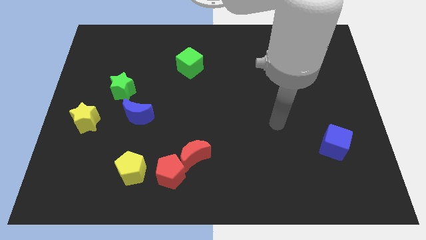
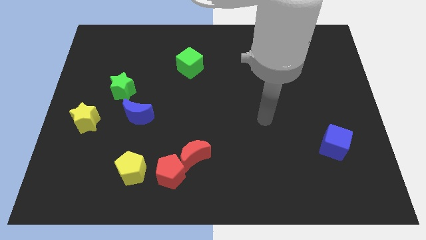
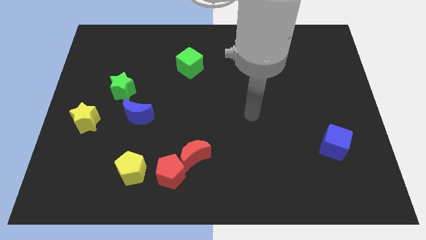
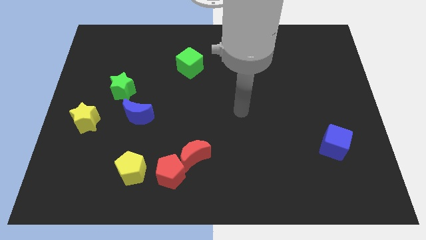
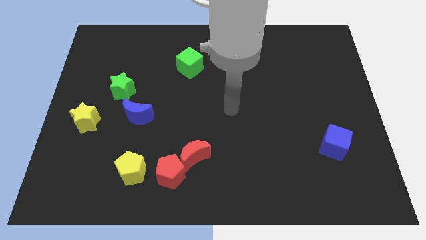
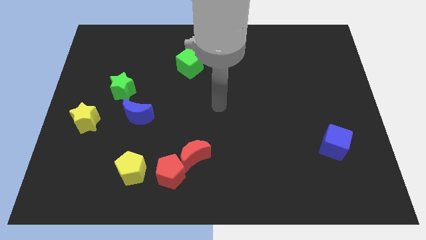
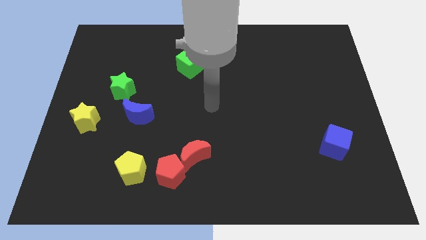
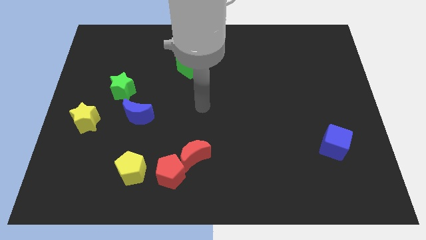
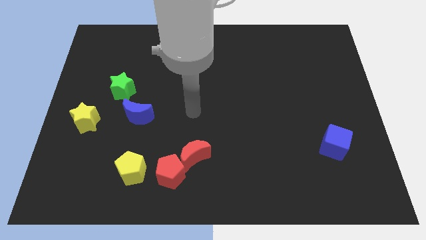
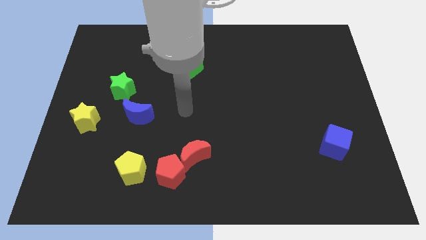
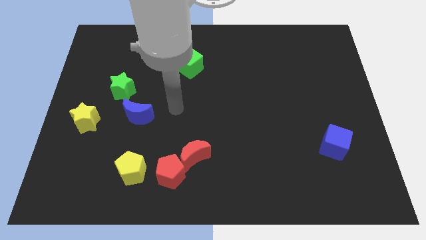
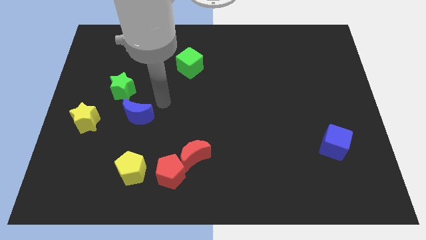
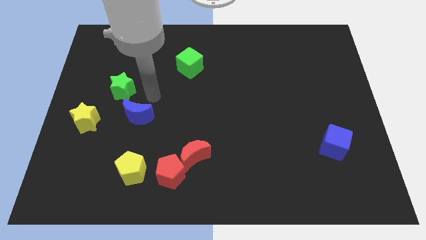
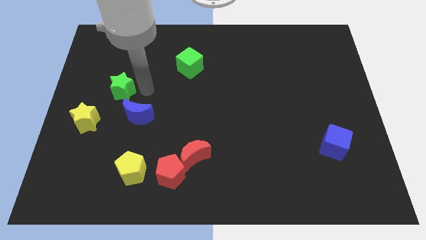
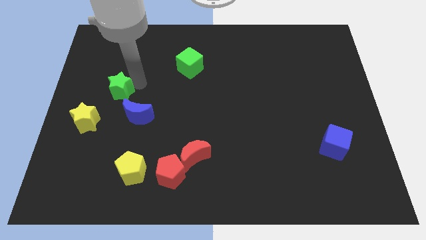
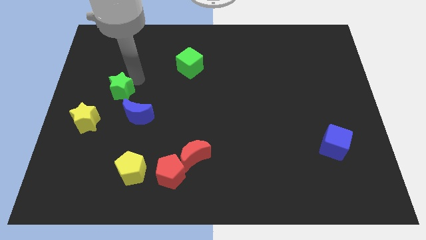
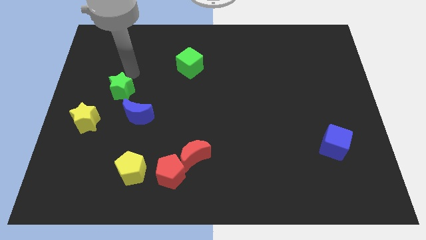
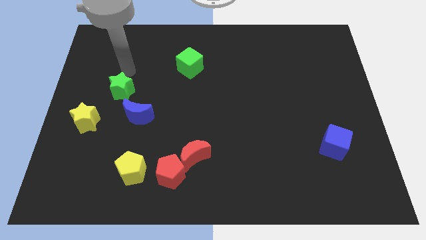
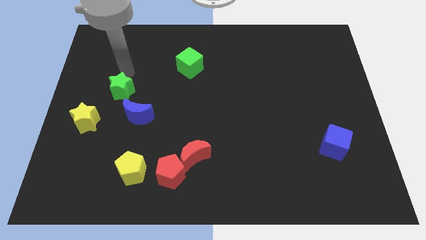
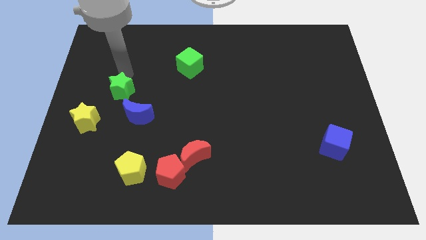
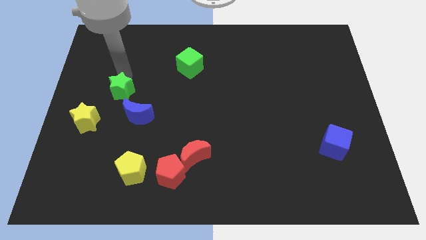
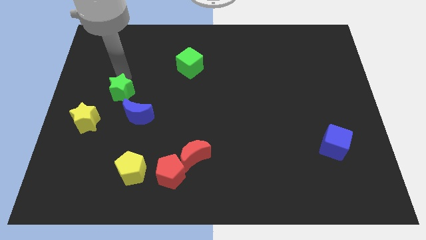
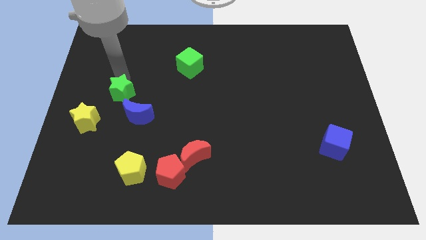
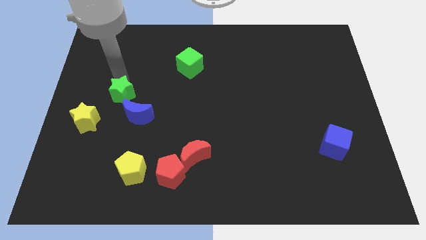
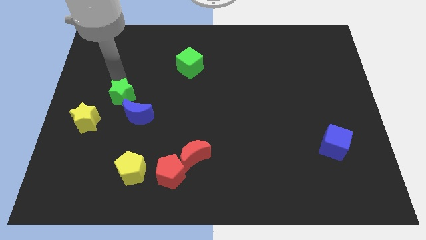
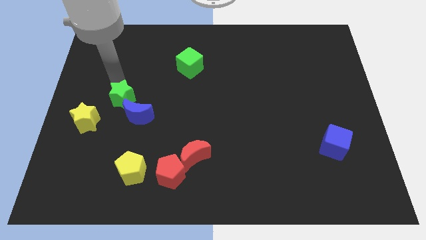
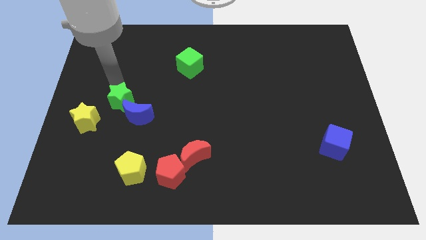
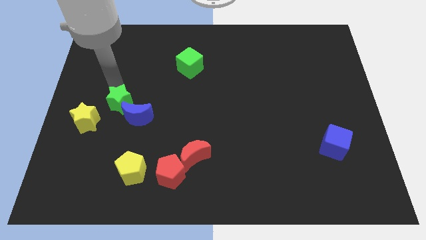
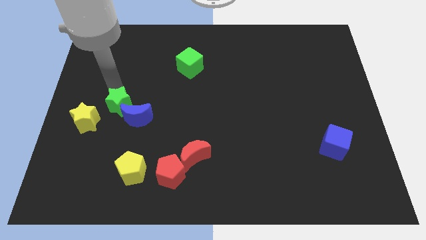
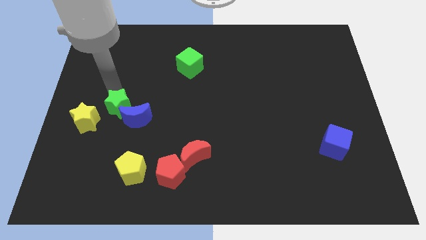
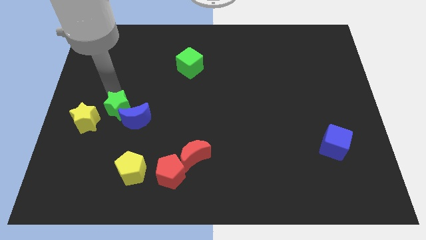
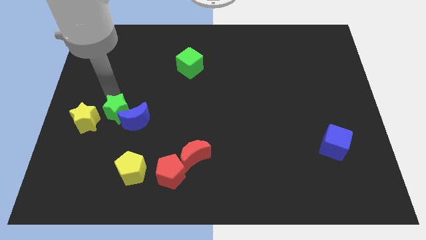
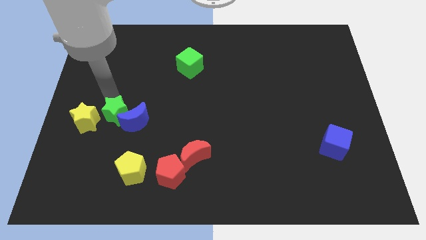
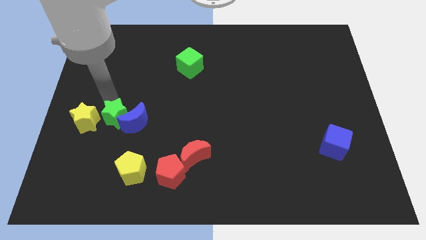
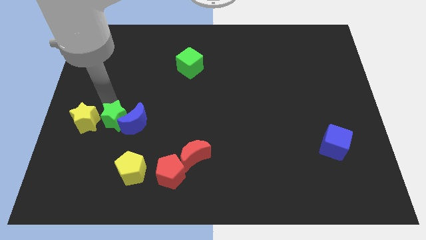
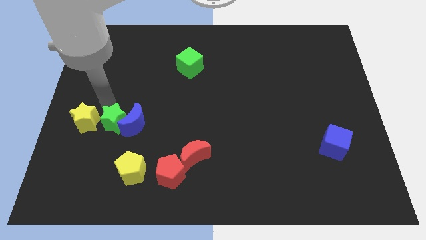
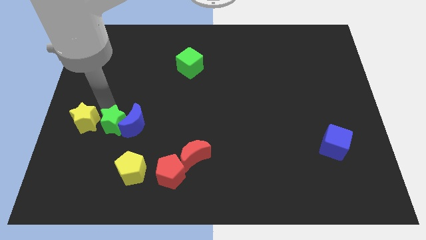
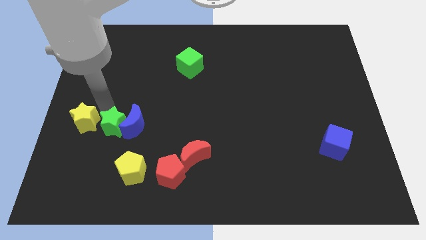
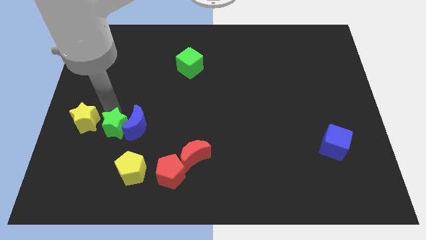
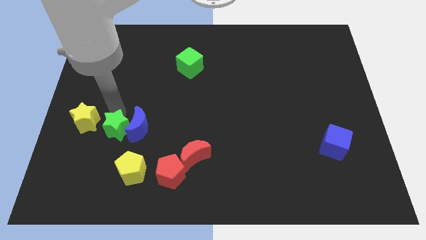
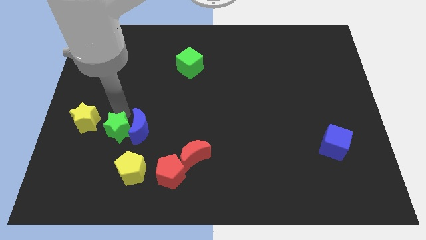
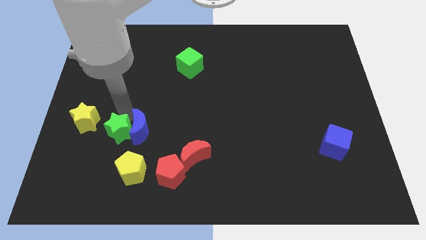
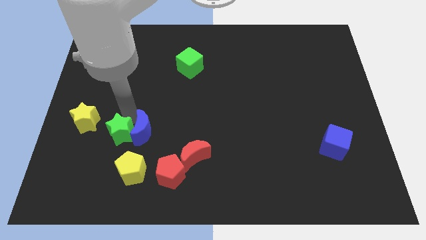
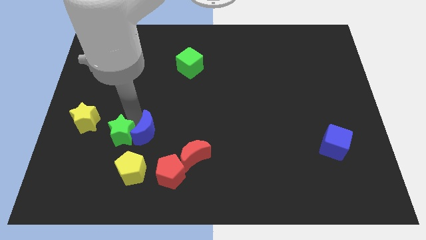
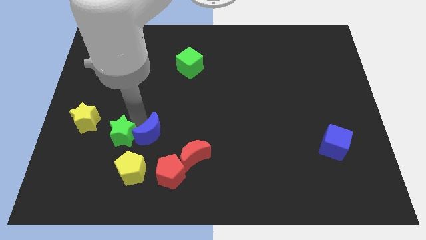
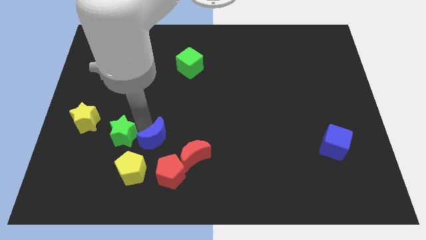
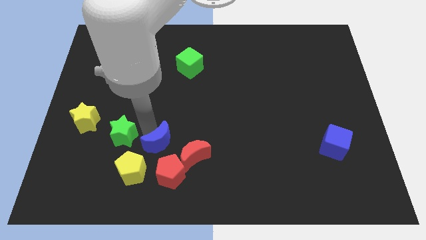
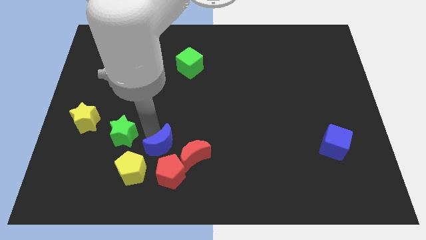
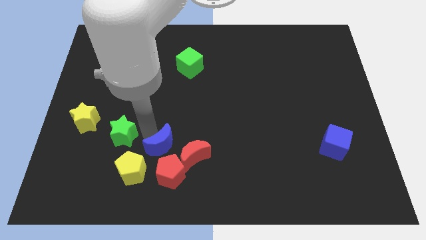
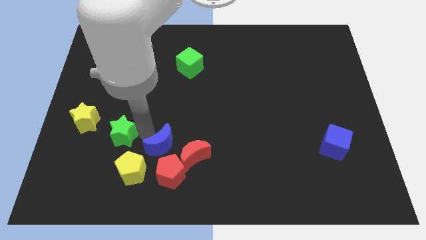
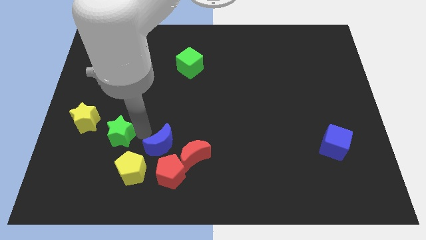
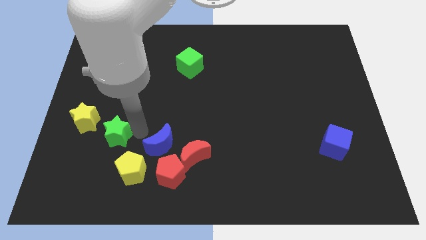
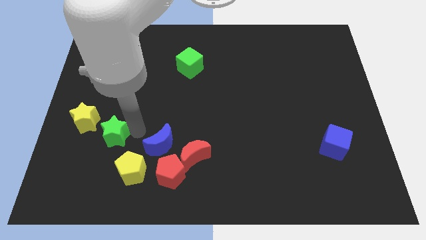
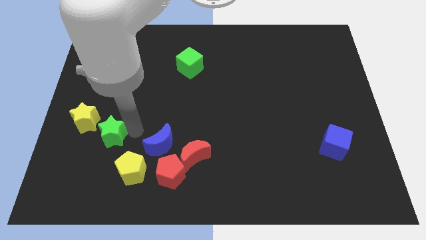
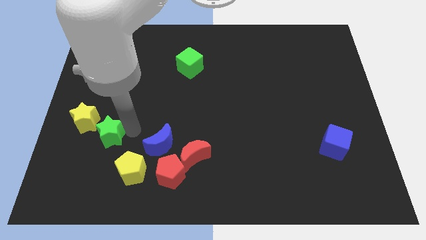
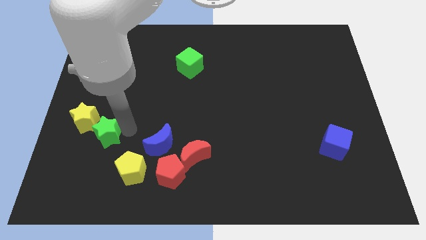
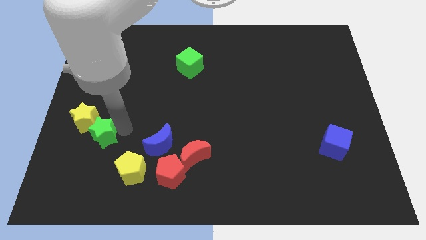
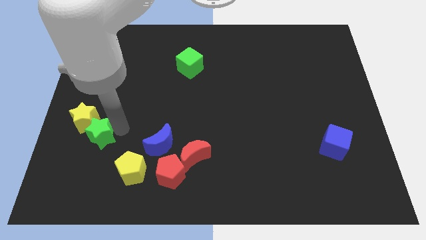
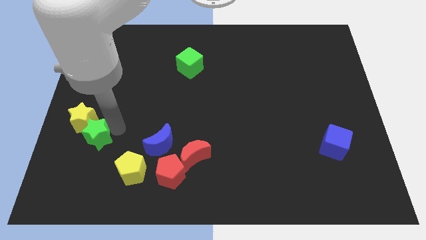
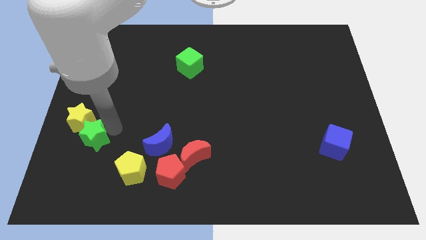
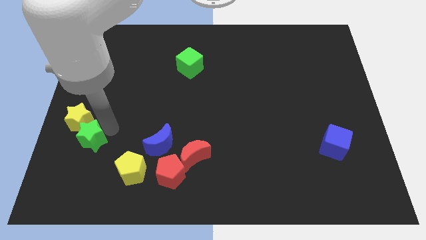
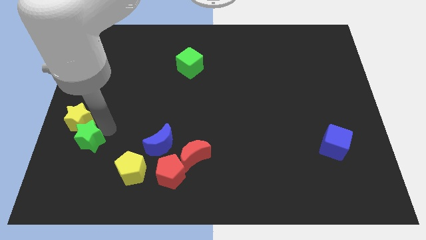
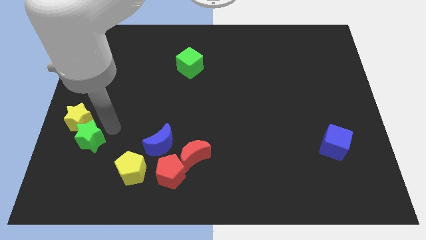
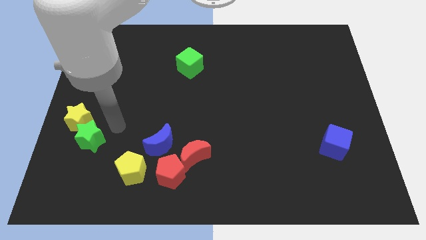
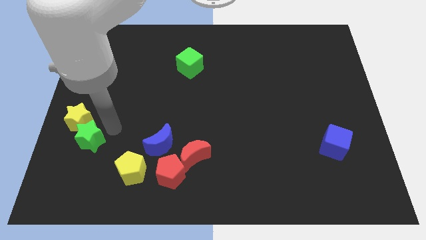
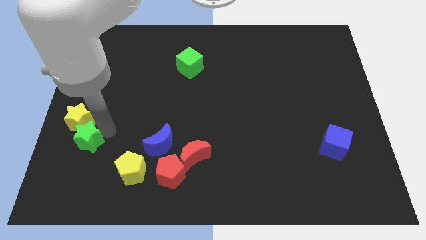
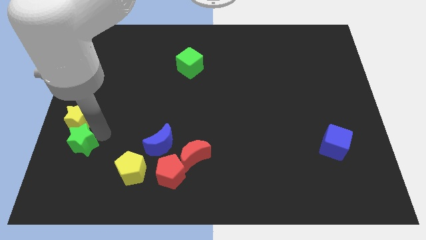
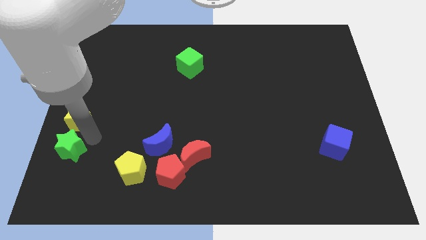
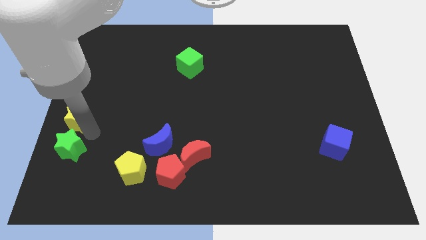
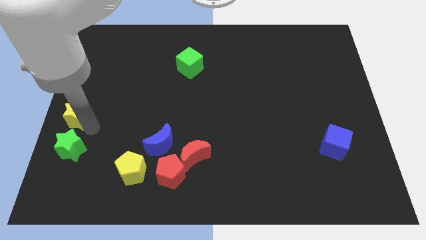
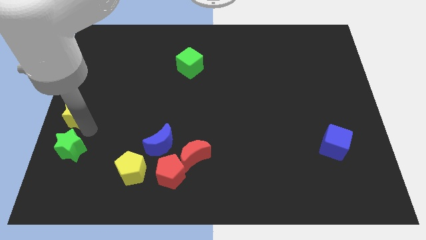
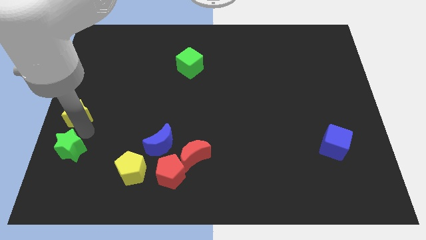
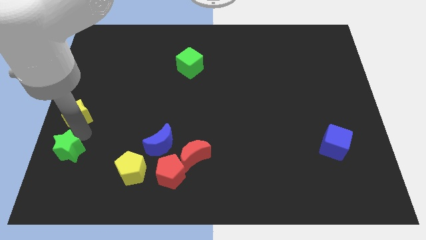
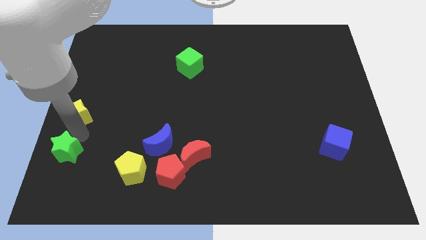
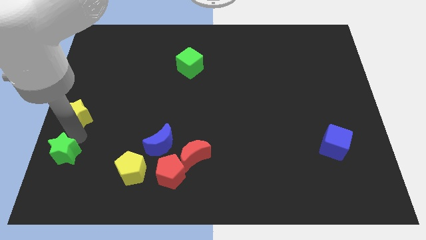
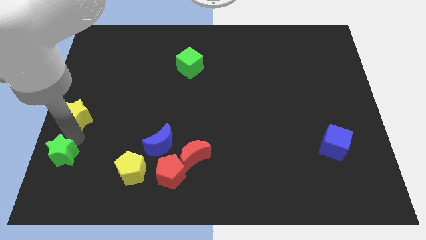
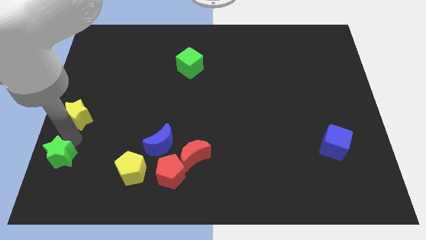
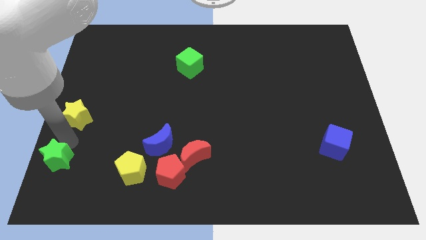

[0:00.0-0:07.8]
slide the green star to the bottom left
